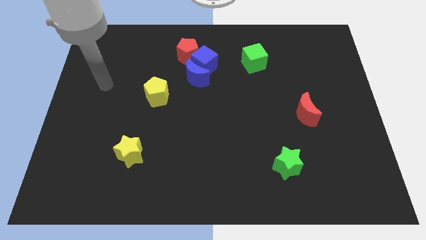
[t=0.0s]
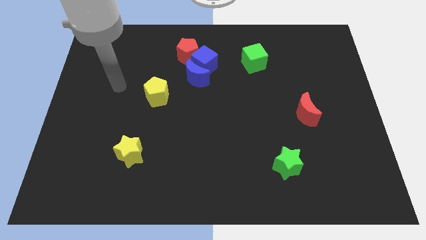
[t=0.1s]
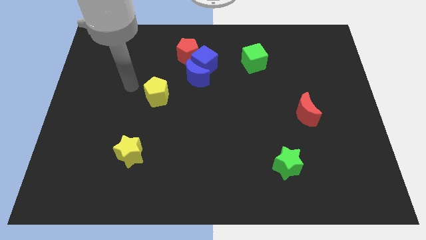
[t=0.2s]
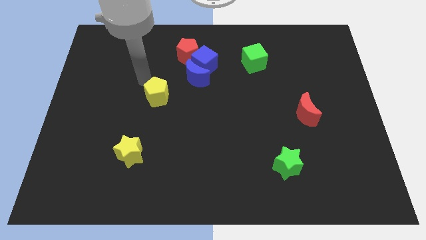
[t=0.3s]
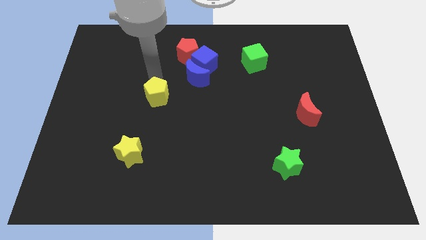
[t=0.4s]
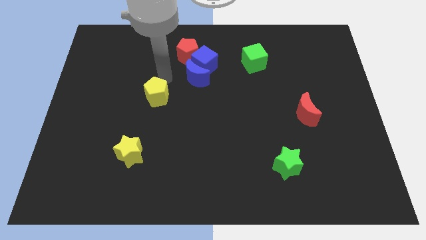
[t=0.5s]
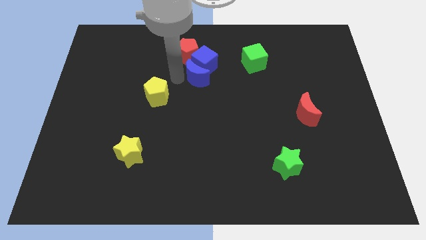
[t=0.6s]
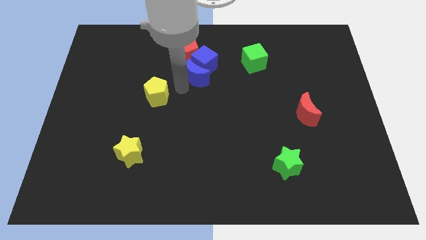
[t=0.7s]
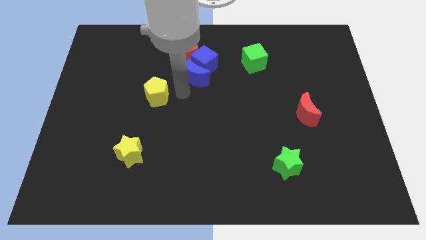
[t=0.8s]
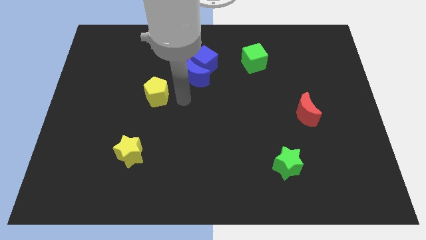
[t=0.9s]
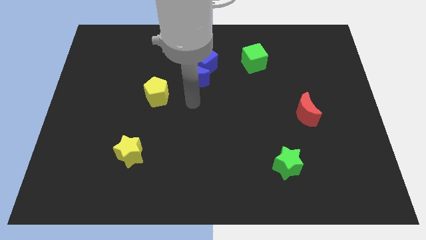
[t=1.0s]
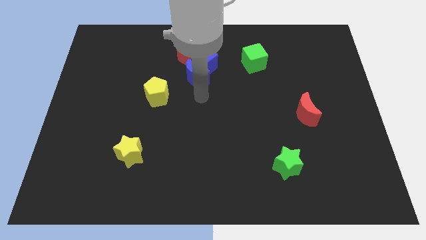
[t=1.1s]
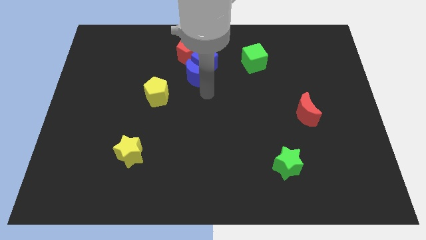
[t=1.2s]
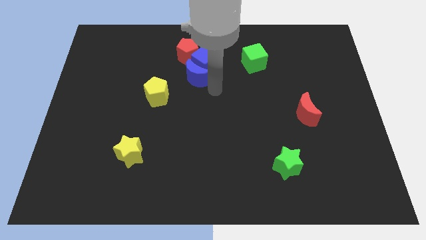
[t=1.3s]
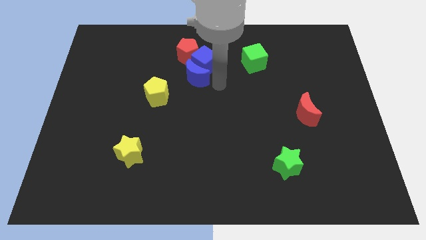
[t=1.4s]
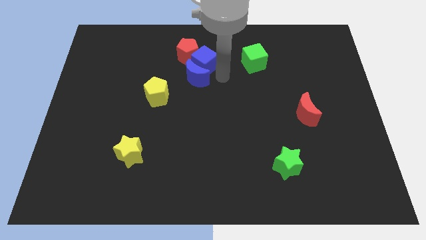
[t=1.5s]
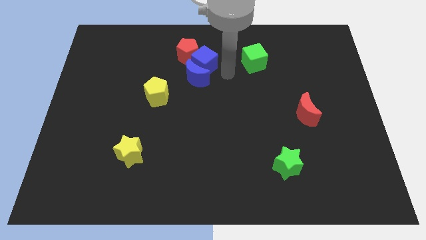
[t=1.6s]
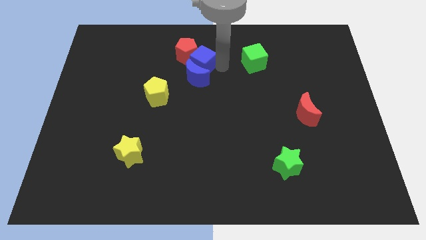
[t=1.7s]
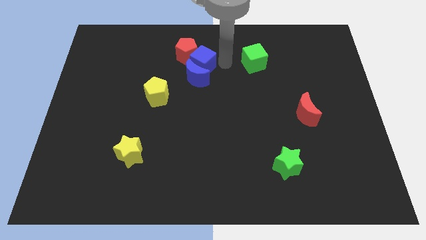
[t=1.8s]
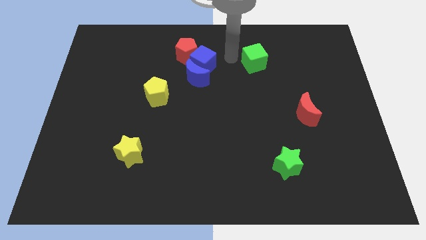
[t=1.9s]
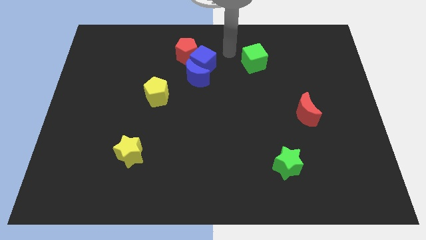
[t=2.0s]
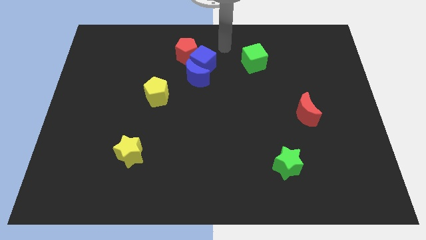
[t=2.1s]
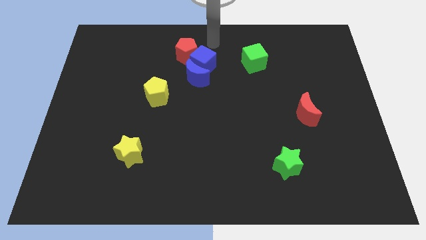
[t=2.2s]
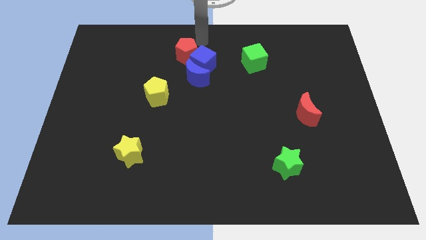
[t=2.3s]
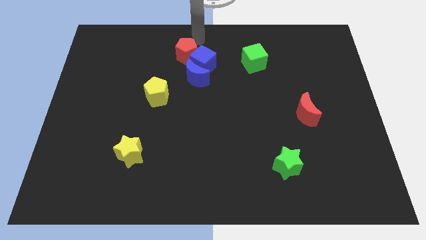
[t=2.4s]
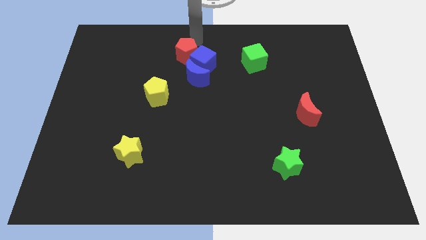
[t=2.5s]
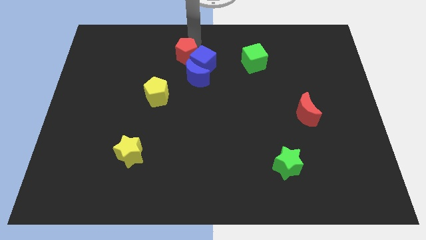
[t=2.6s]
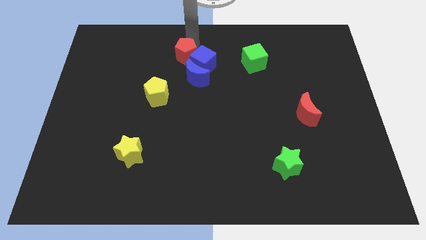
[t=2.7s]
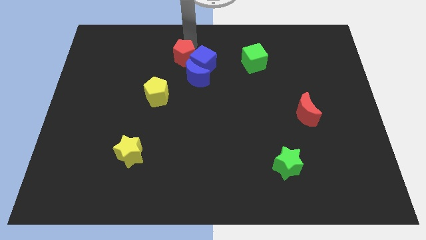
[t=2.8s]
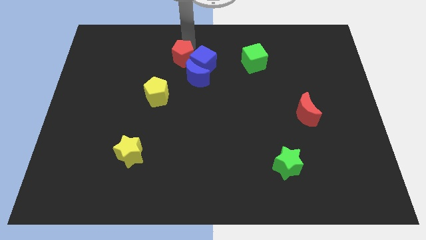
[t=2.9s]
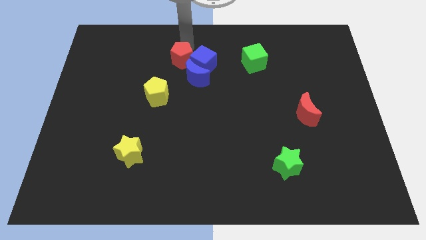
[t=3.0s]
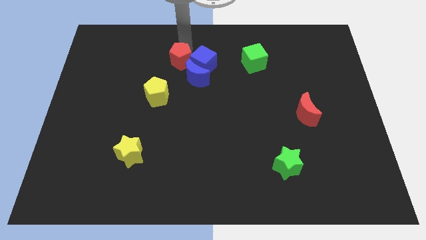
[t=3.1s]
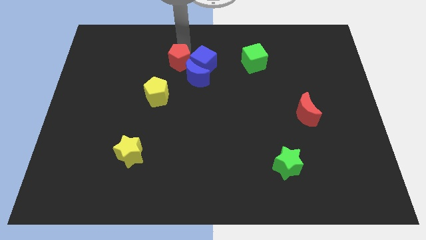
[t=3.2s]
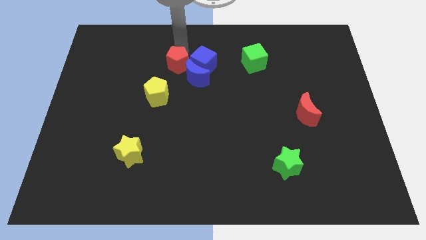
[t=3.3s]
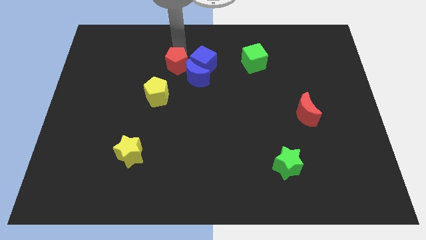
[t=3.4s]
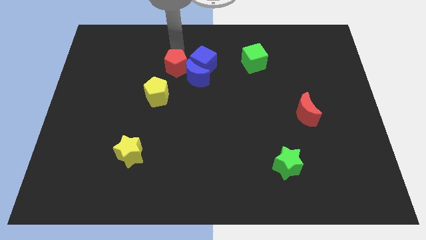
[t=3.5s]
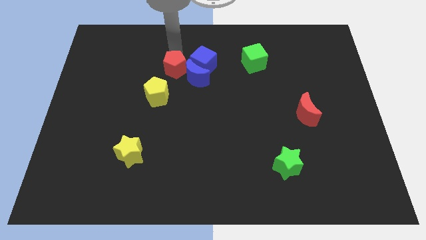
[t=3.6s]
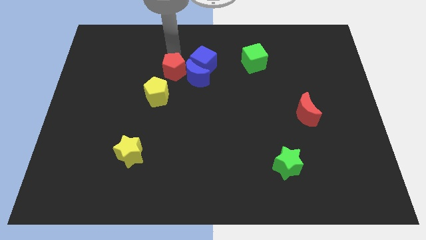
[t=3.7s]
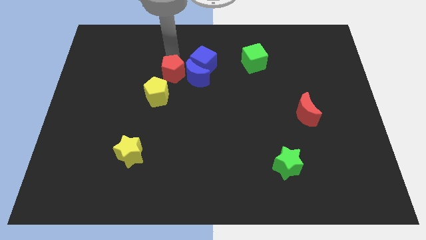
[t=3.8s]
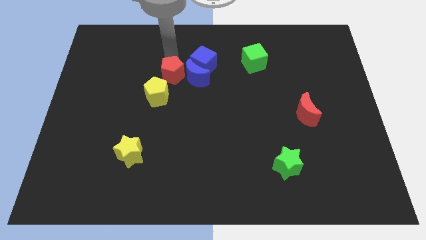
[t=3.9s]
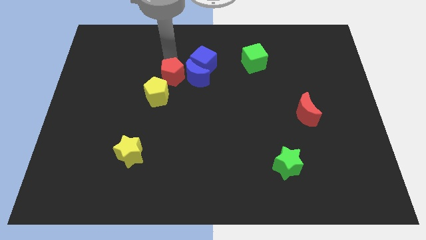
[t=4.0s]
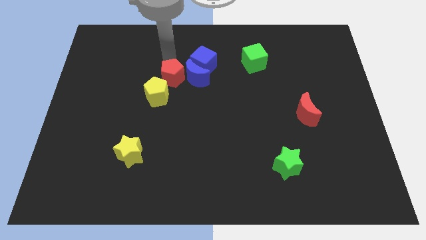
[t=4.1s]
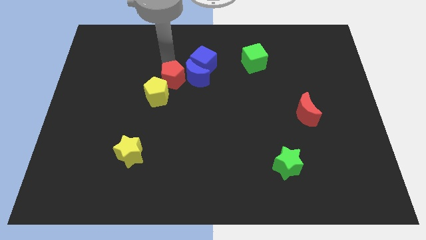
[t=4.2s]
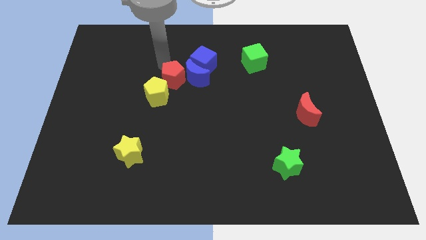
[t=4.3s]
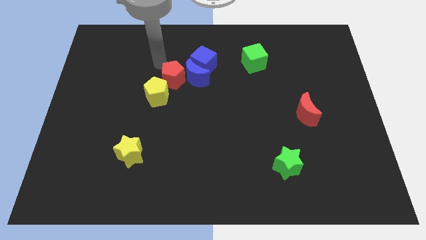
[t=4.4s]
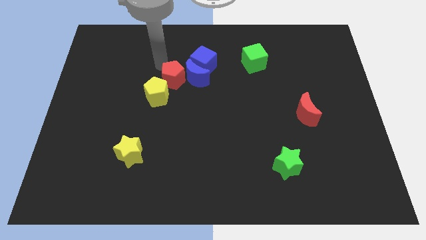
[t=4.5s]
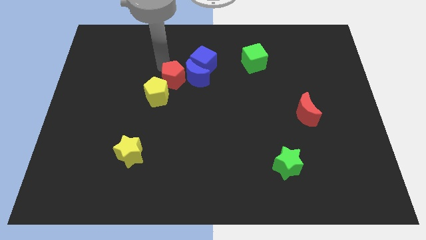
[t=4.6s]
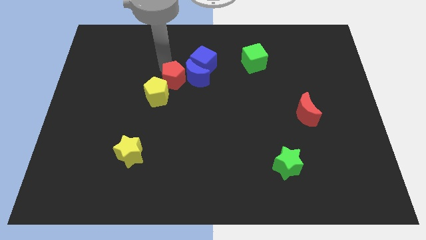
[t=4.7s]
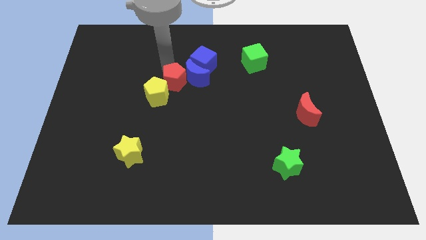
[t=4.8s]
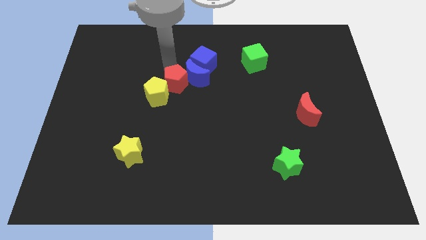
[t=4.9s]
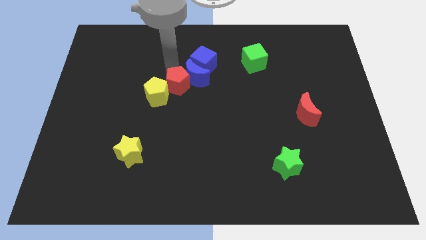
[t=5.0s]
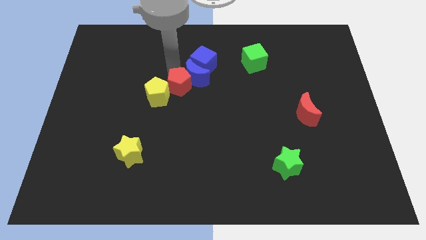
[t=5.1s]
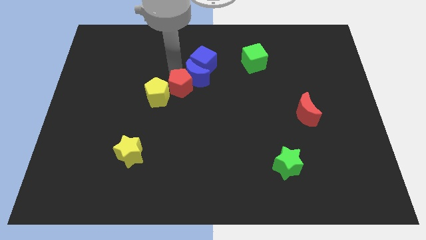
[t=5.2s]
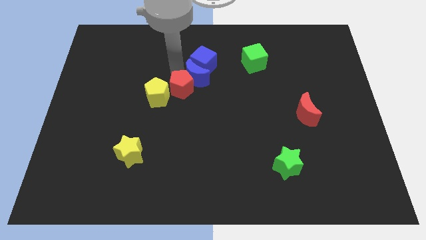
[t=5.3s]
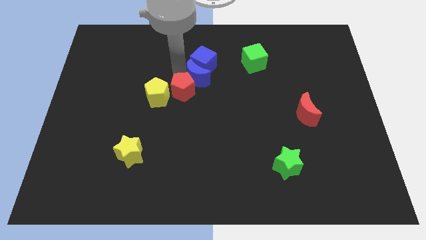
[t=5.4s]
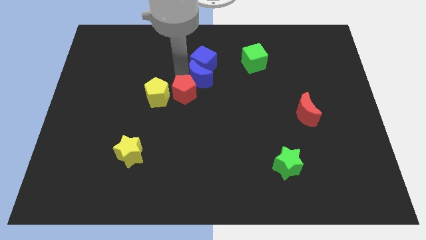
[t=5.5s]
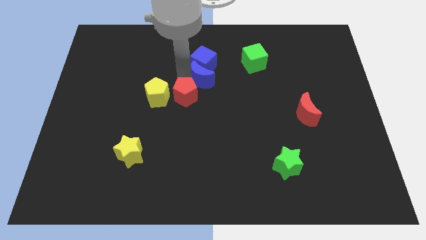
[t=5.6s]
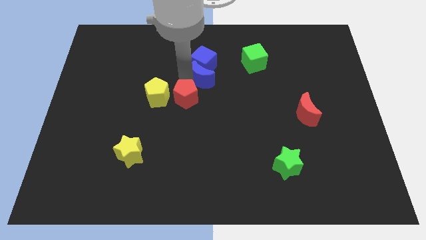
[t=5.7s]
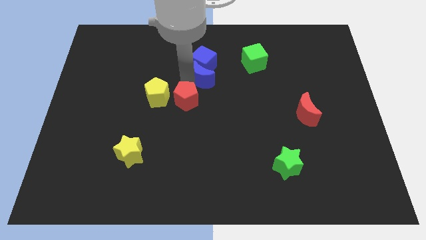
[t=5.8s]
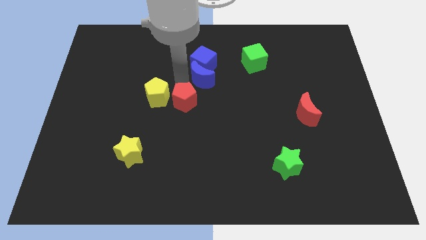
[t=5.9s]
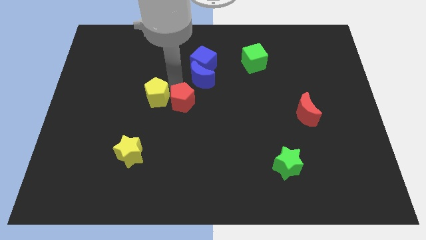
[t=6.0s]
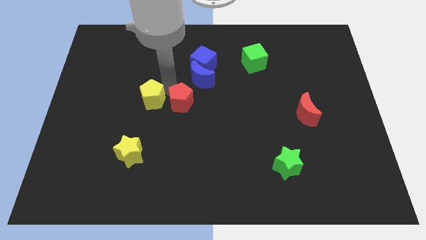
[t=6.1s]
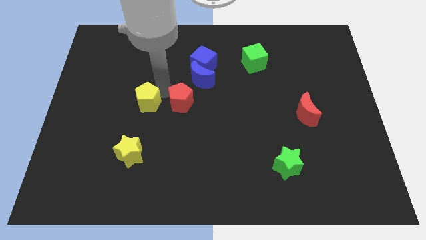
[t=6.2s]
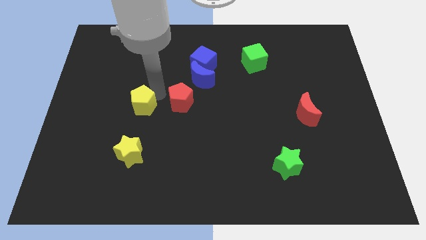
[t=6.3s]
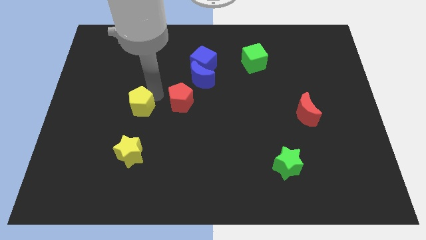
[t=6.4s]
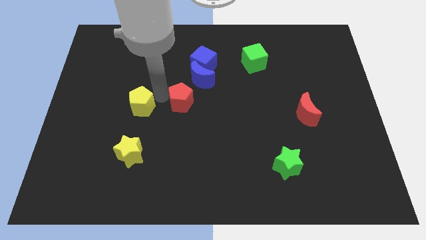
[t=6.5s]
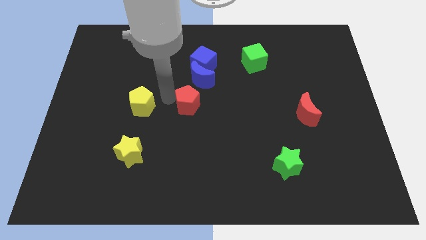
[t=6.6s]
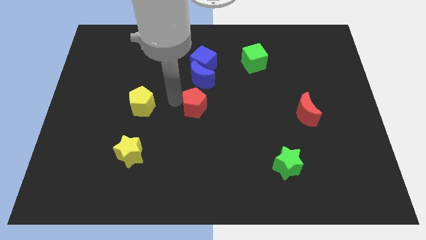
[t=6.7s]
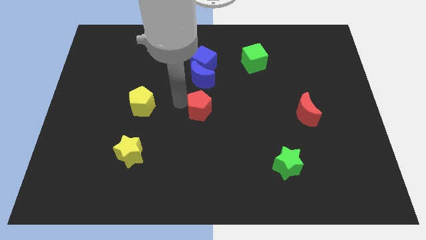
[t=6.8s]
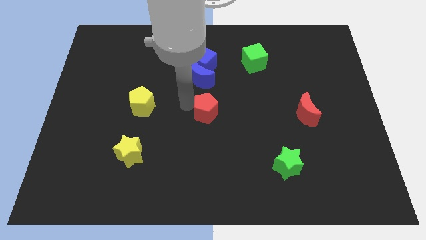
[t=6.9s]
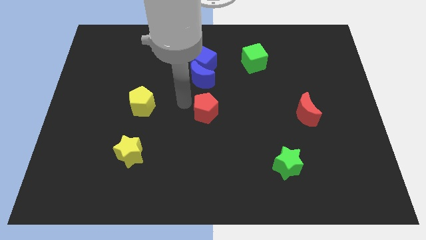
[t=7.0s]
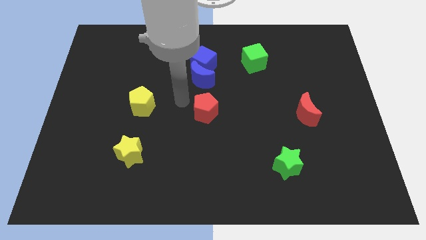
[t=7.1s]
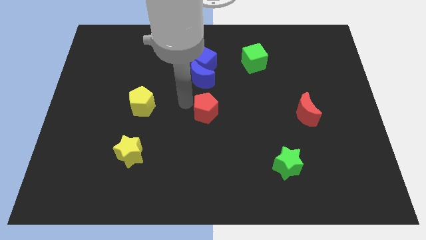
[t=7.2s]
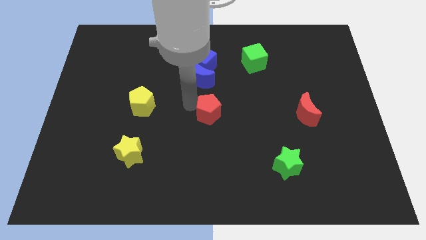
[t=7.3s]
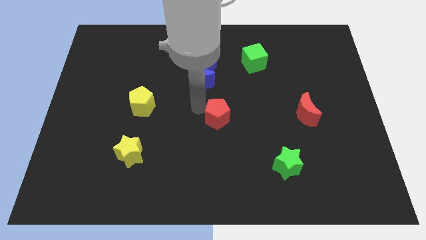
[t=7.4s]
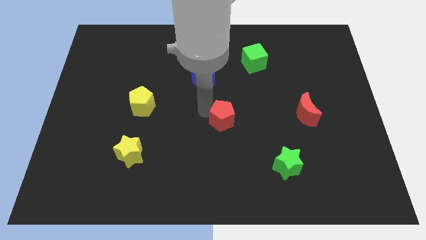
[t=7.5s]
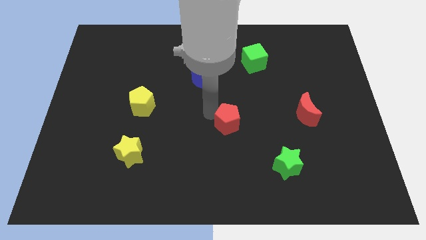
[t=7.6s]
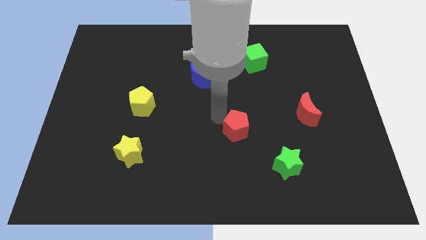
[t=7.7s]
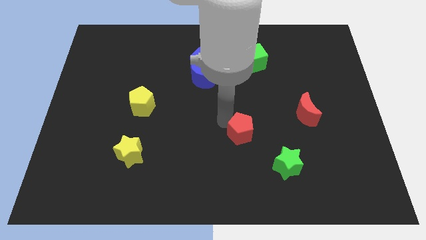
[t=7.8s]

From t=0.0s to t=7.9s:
put the red pentagon to the top left side of the green star
